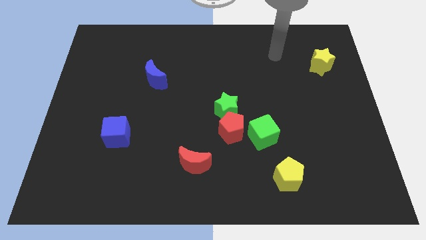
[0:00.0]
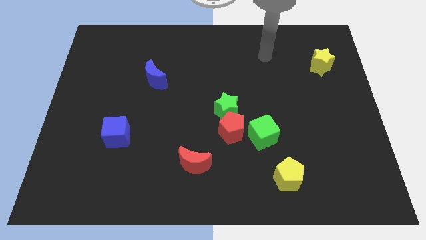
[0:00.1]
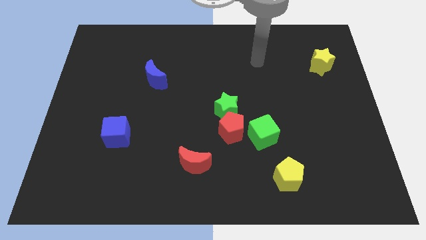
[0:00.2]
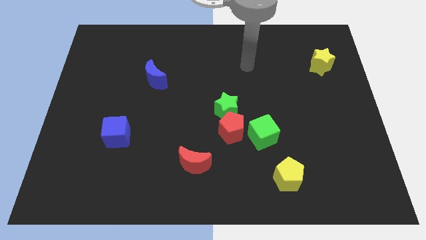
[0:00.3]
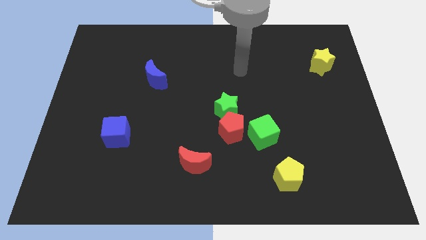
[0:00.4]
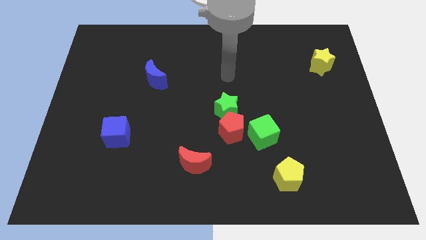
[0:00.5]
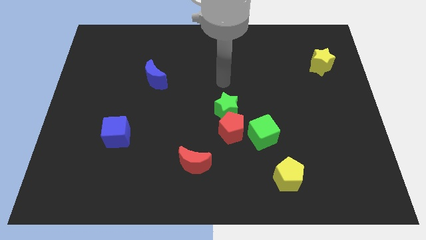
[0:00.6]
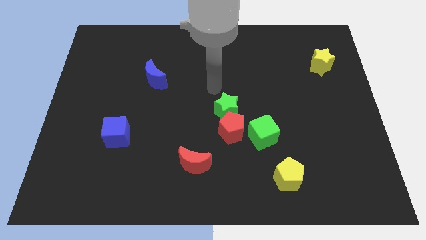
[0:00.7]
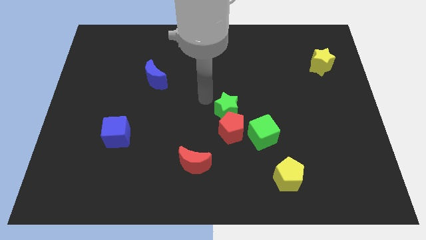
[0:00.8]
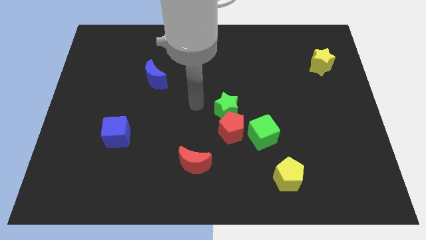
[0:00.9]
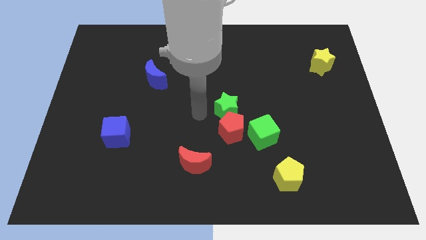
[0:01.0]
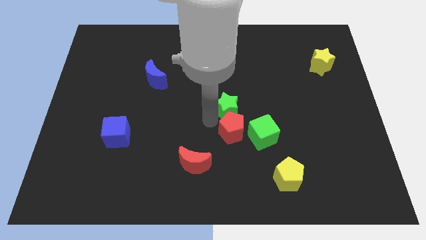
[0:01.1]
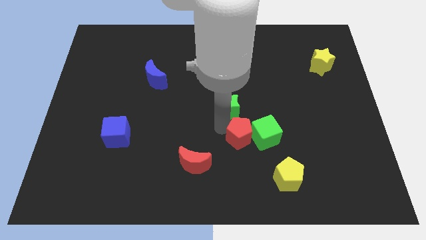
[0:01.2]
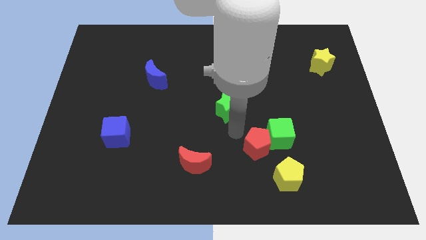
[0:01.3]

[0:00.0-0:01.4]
separate the green star from the red pentagon

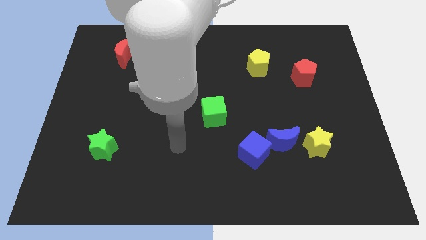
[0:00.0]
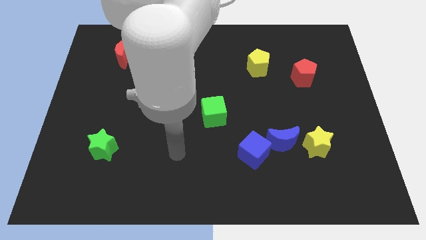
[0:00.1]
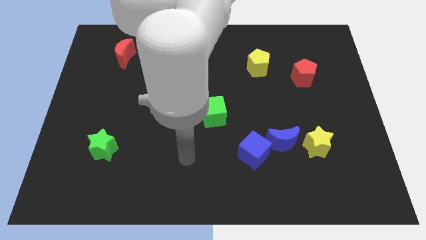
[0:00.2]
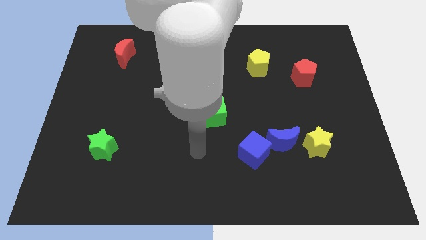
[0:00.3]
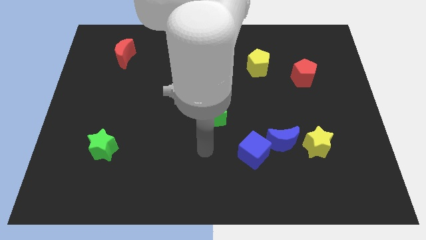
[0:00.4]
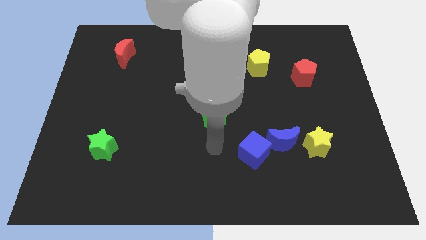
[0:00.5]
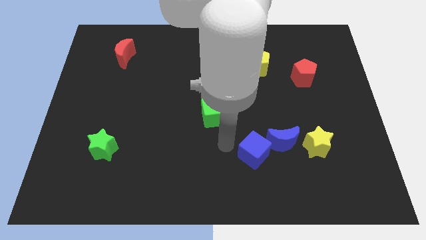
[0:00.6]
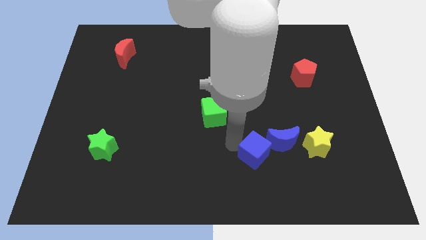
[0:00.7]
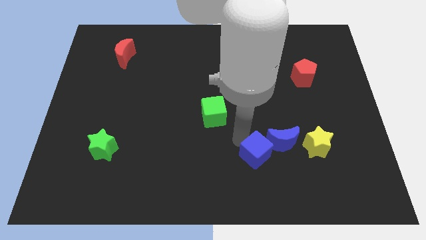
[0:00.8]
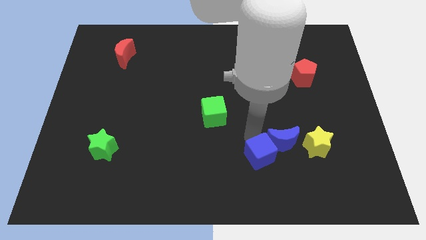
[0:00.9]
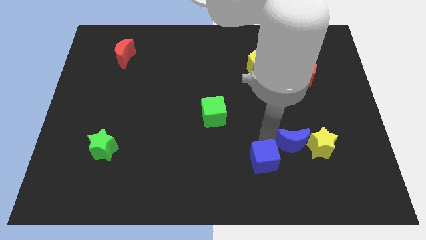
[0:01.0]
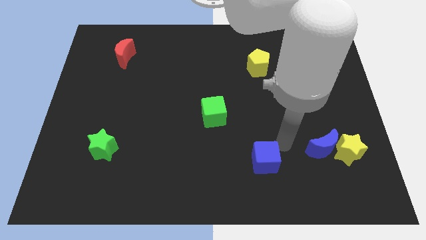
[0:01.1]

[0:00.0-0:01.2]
move the blue cube away from the blue moon

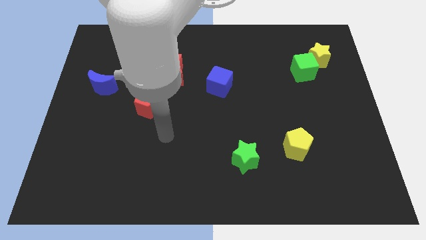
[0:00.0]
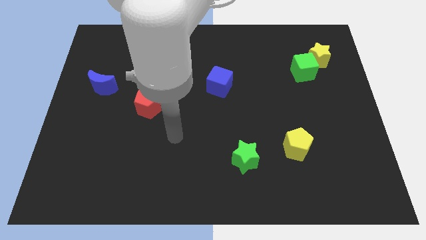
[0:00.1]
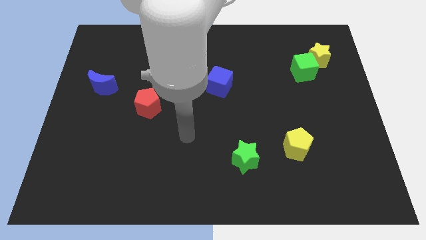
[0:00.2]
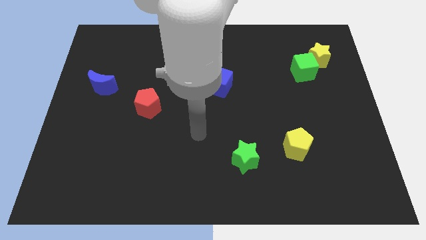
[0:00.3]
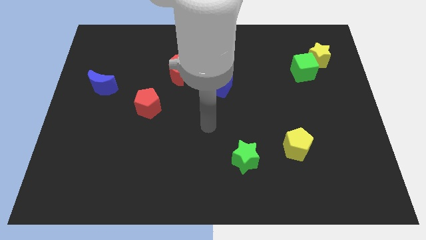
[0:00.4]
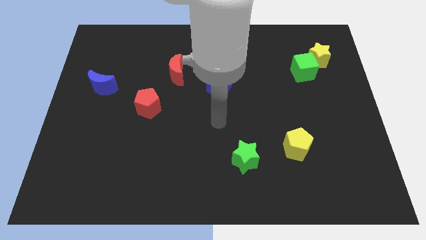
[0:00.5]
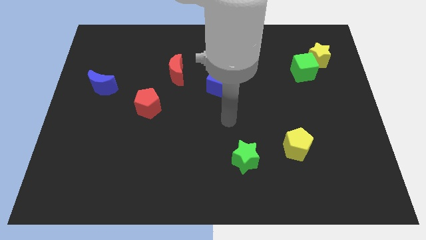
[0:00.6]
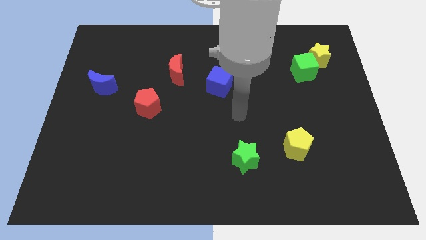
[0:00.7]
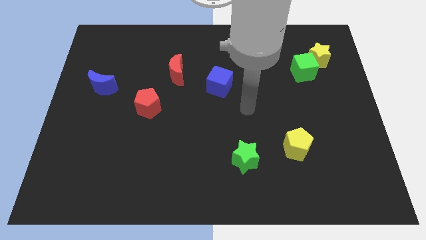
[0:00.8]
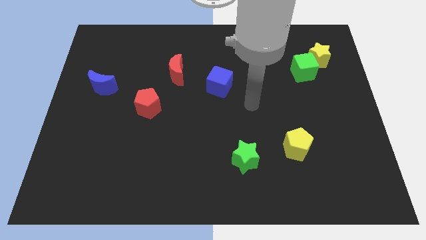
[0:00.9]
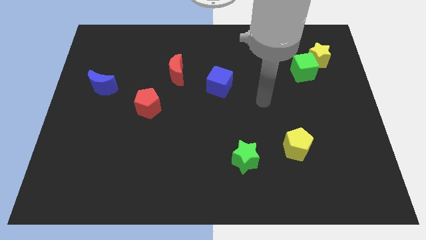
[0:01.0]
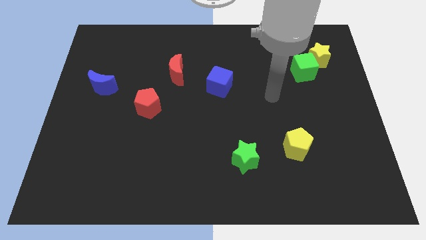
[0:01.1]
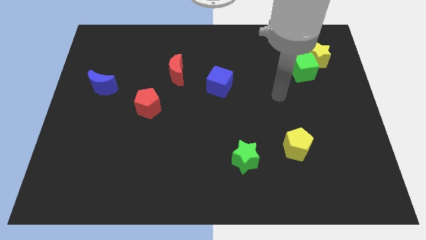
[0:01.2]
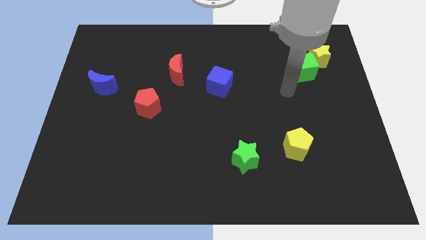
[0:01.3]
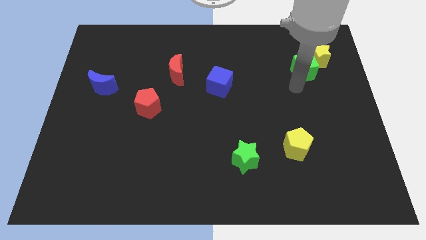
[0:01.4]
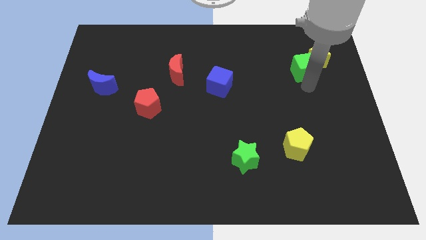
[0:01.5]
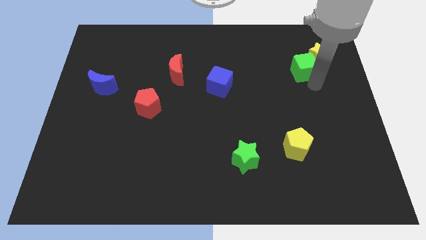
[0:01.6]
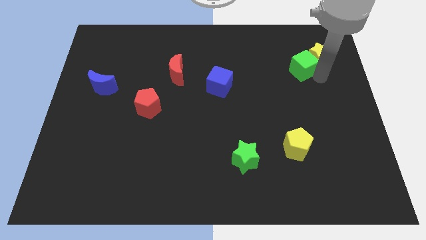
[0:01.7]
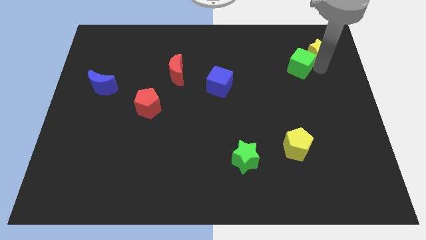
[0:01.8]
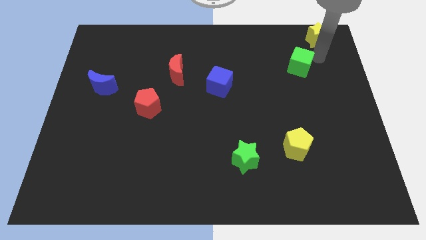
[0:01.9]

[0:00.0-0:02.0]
separate the green cube from the yellow star

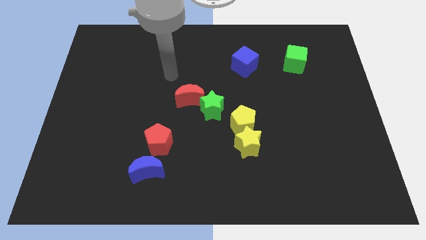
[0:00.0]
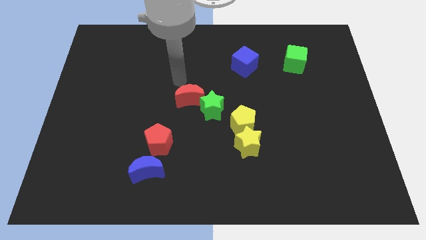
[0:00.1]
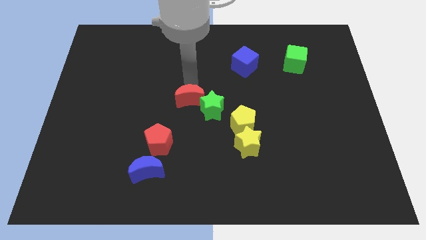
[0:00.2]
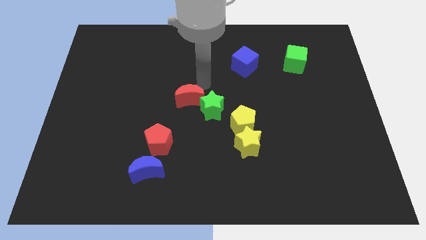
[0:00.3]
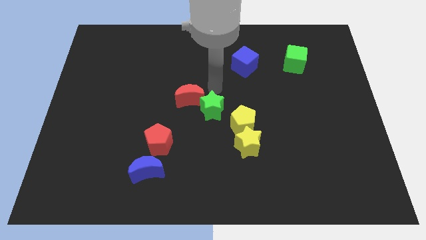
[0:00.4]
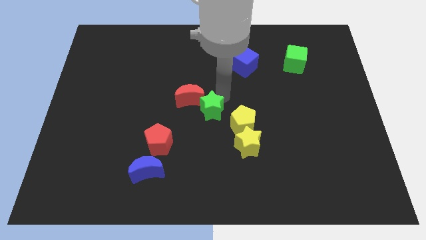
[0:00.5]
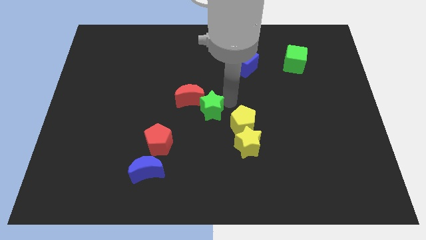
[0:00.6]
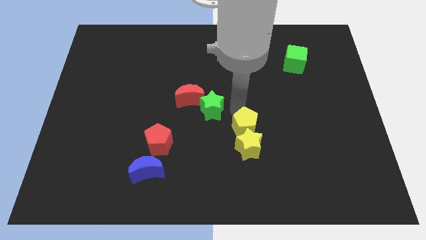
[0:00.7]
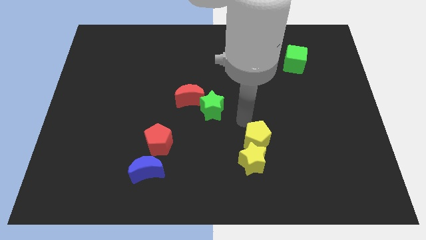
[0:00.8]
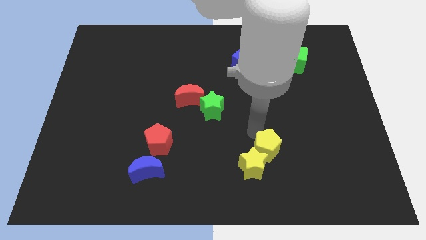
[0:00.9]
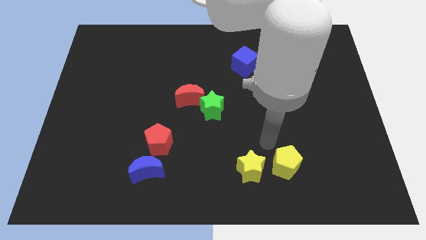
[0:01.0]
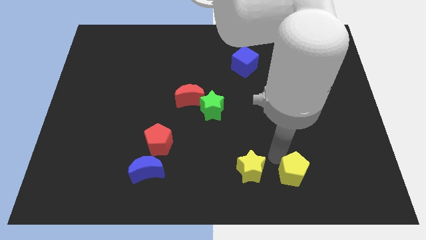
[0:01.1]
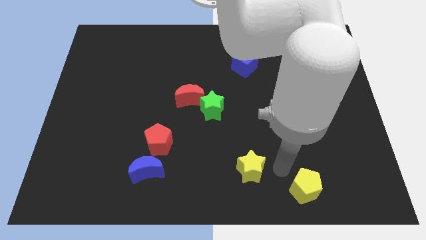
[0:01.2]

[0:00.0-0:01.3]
move the yellow star away from the yellow pentagon

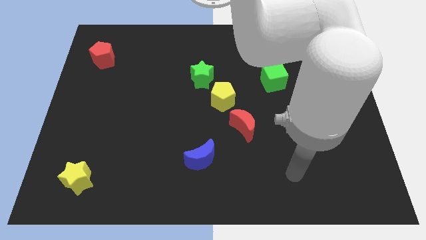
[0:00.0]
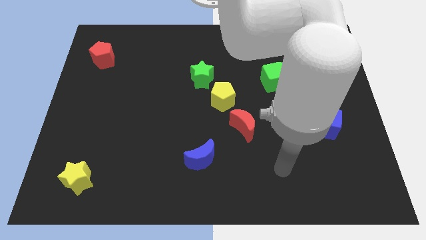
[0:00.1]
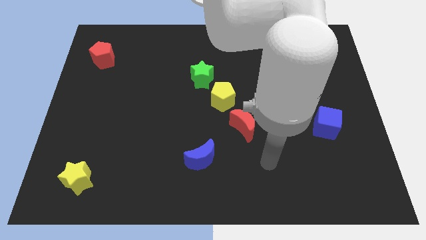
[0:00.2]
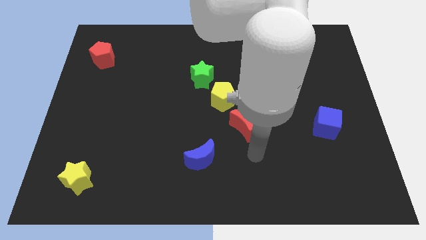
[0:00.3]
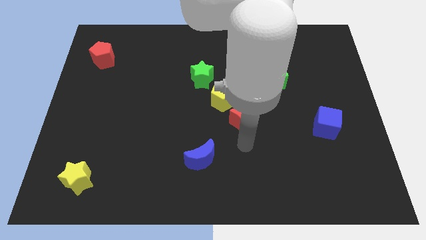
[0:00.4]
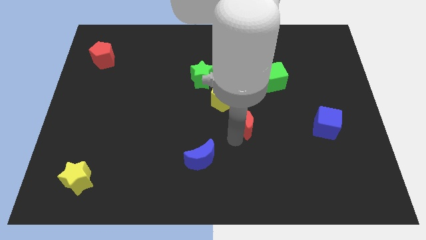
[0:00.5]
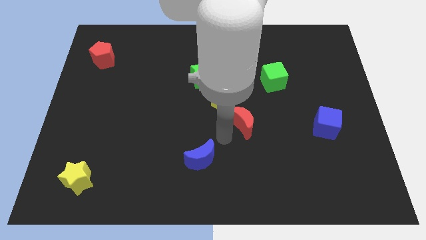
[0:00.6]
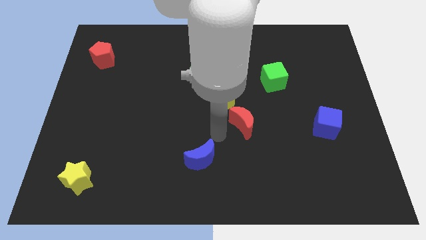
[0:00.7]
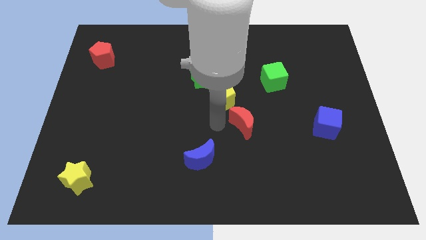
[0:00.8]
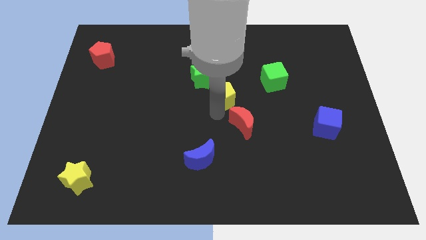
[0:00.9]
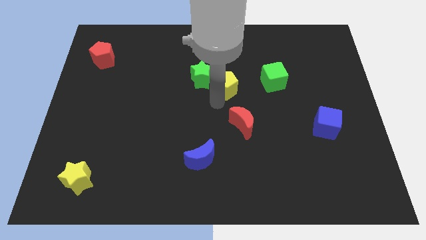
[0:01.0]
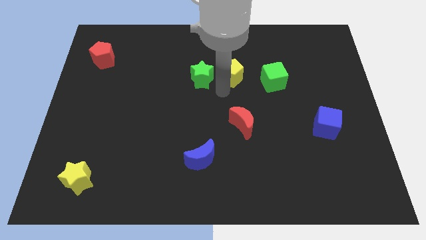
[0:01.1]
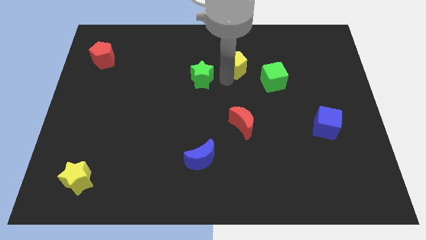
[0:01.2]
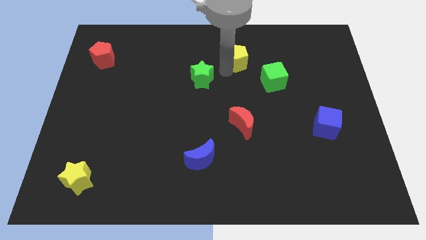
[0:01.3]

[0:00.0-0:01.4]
move the green star away from the yellow pentagon

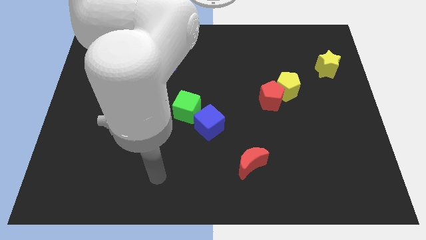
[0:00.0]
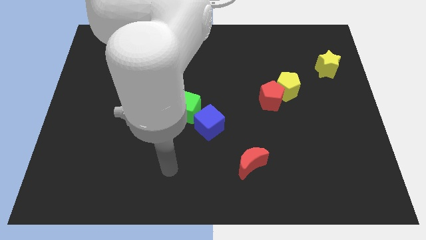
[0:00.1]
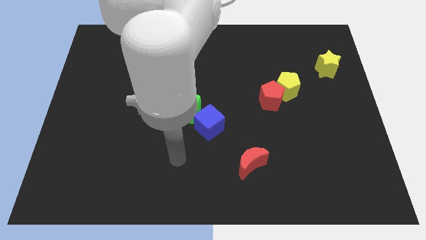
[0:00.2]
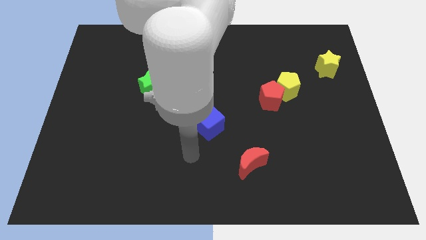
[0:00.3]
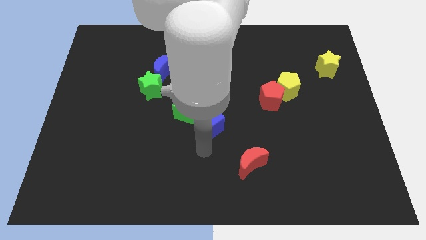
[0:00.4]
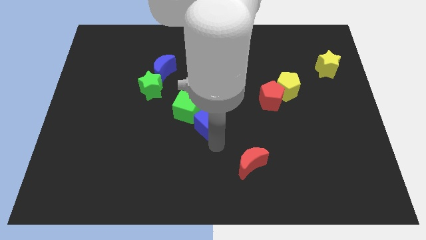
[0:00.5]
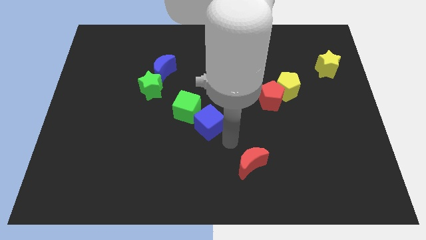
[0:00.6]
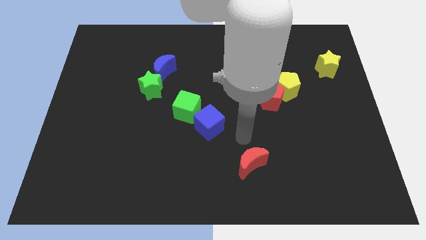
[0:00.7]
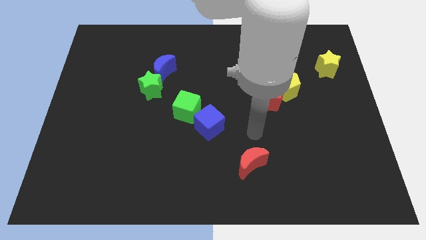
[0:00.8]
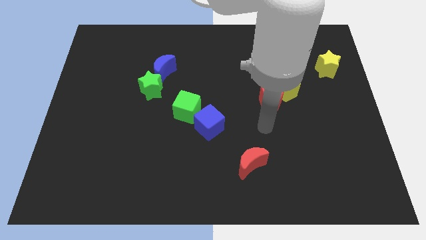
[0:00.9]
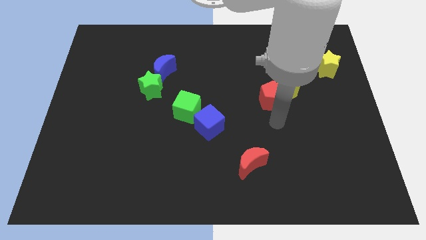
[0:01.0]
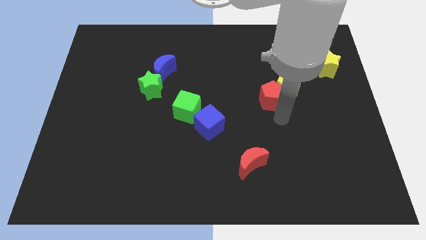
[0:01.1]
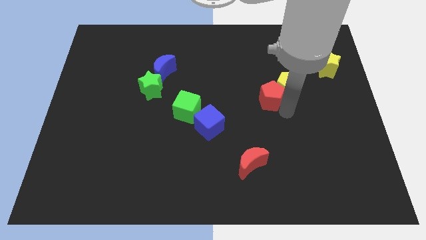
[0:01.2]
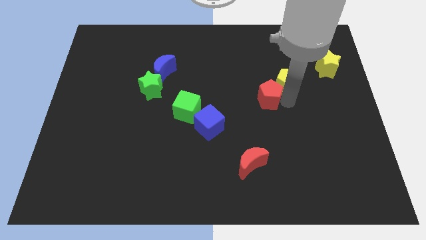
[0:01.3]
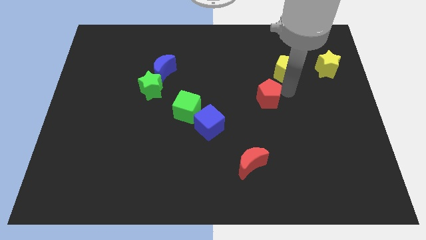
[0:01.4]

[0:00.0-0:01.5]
pull the red pentagon apart from the yellow pentagon

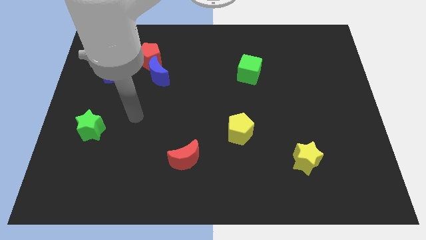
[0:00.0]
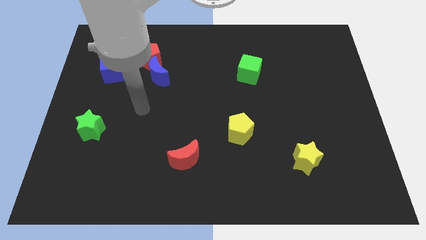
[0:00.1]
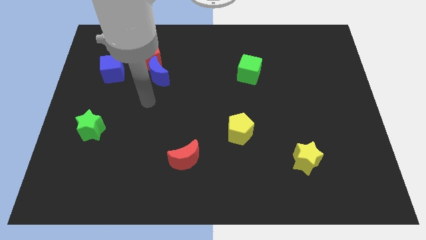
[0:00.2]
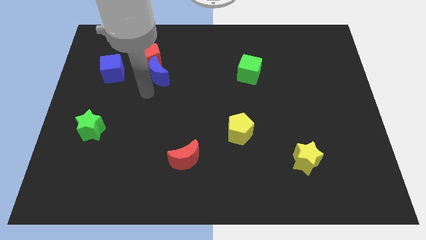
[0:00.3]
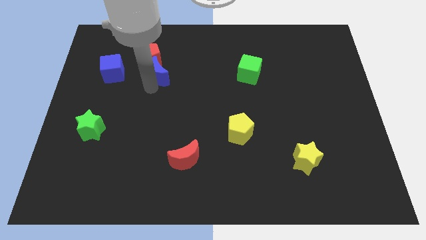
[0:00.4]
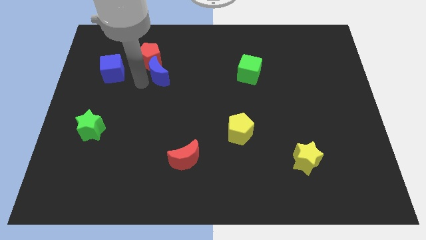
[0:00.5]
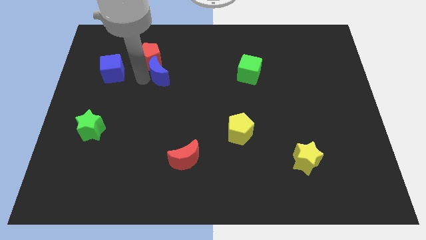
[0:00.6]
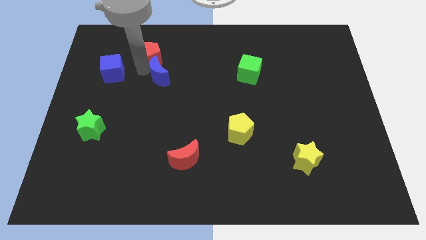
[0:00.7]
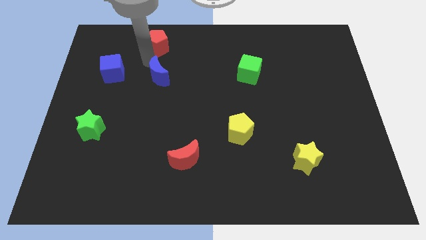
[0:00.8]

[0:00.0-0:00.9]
pull the blue moon apart from the red pentagon
